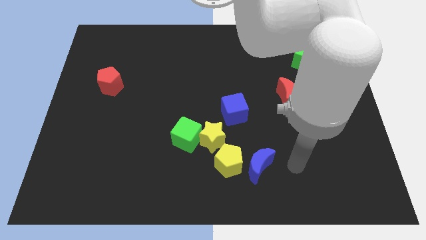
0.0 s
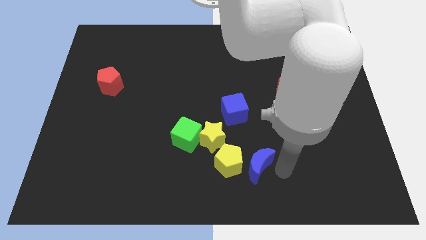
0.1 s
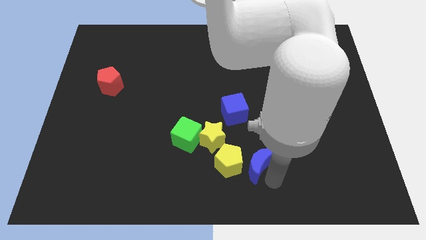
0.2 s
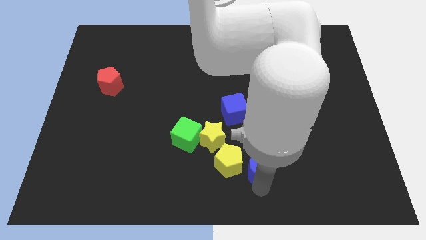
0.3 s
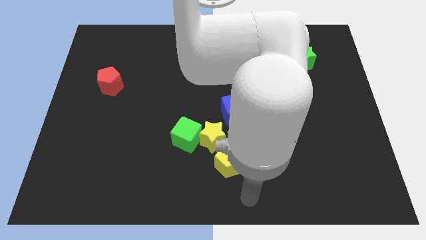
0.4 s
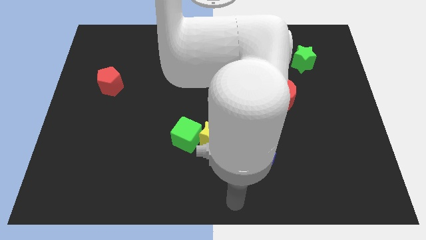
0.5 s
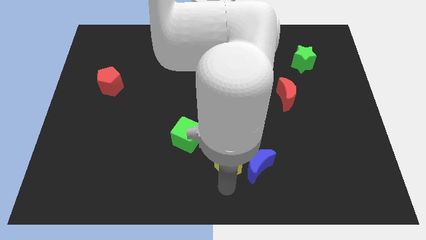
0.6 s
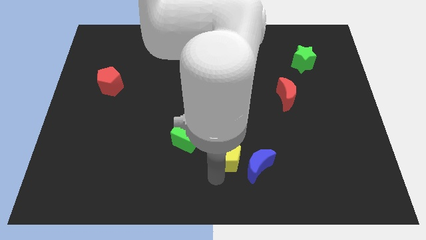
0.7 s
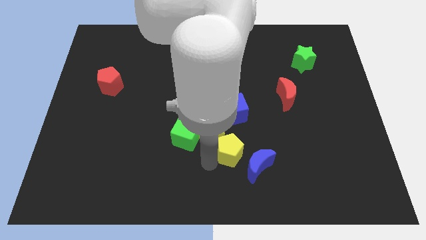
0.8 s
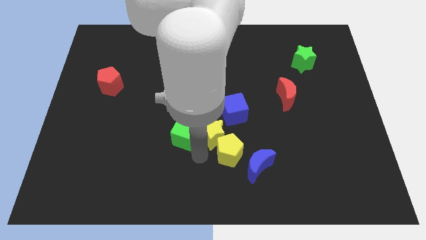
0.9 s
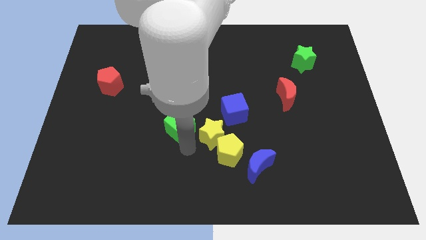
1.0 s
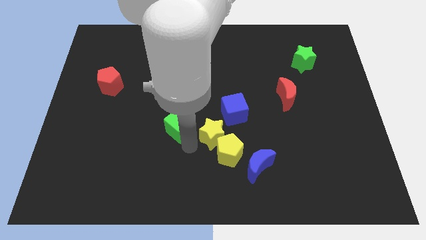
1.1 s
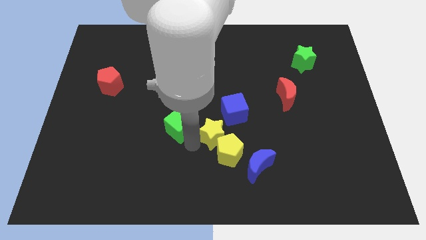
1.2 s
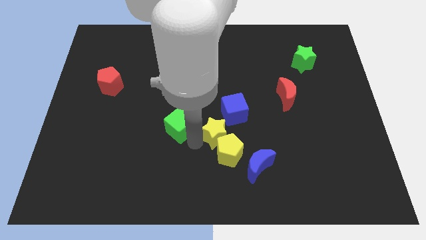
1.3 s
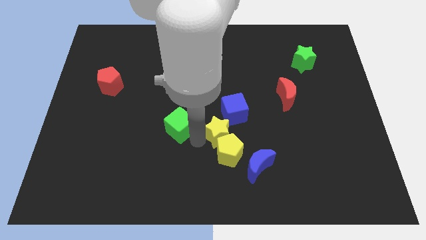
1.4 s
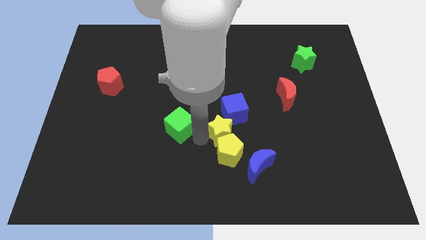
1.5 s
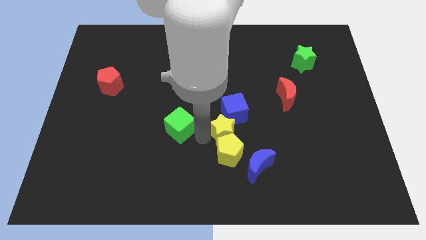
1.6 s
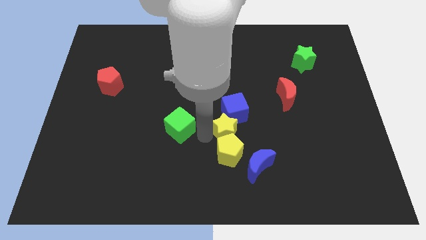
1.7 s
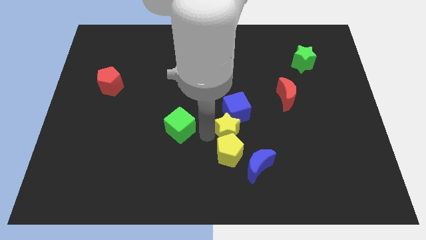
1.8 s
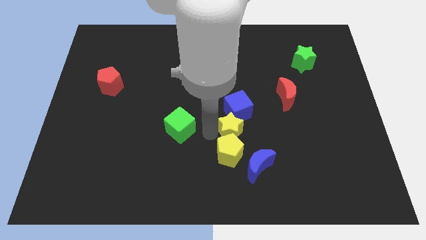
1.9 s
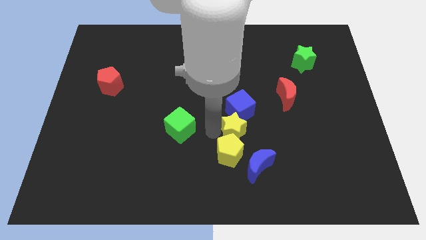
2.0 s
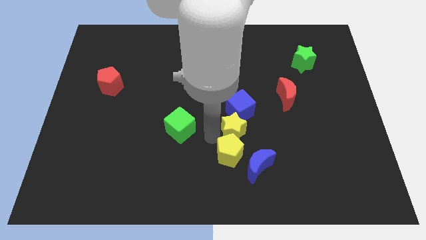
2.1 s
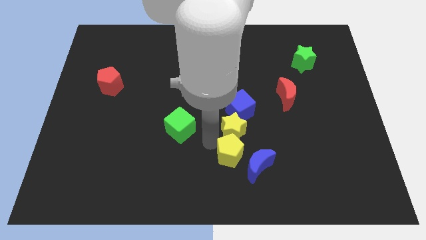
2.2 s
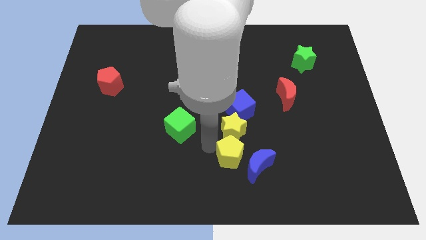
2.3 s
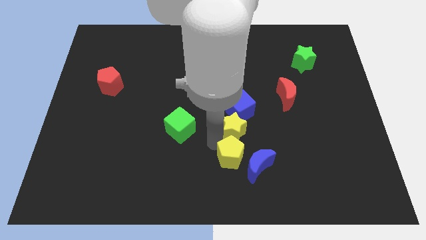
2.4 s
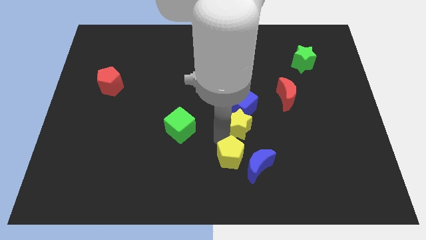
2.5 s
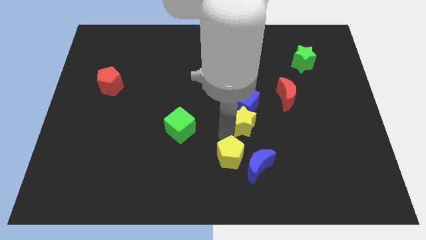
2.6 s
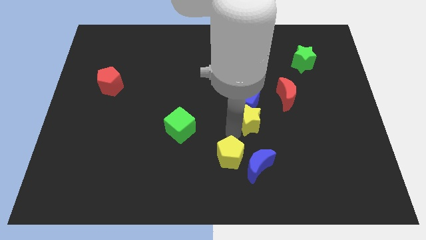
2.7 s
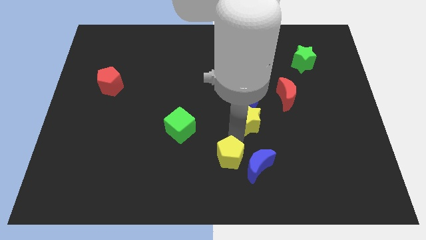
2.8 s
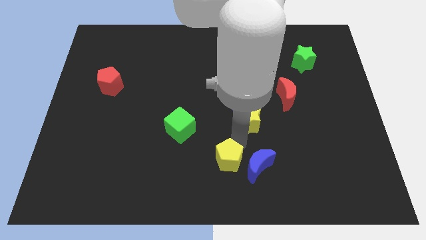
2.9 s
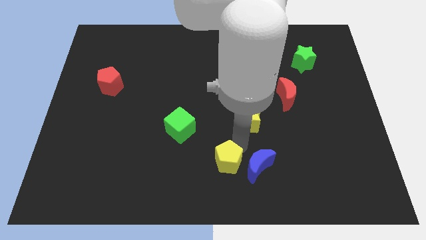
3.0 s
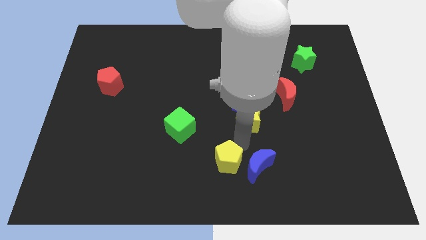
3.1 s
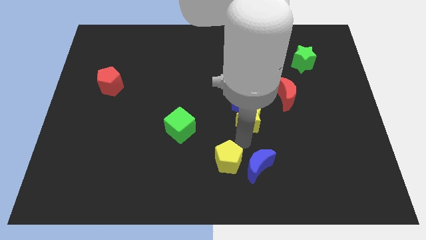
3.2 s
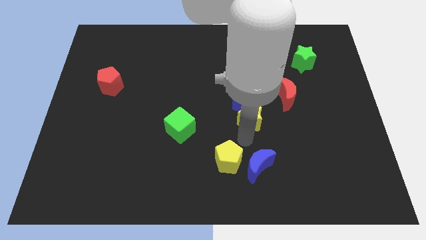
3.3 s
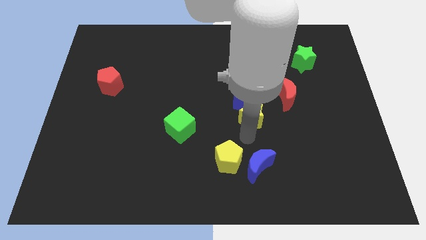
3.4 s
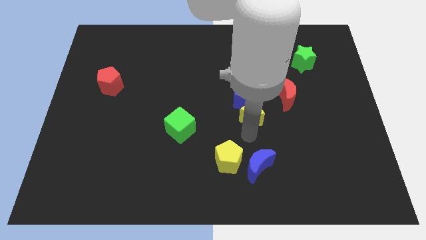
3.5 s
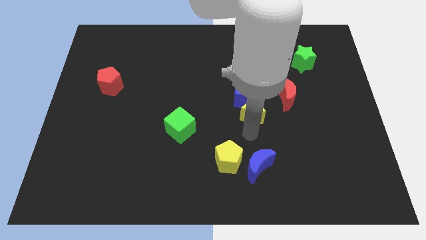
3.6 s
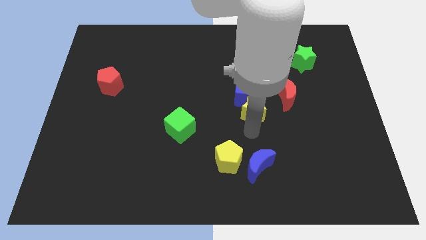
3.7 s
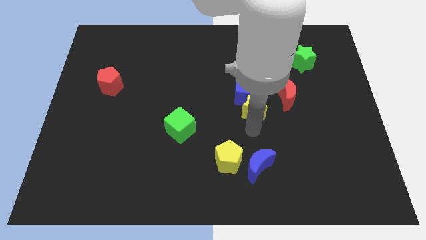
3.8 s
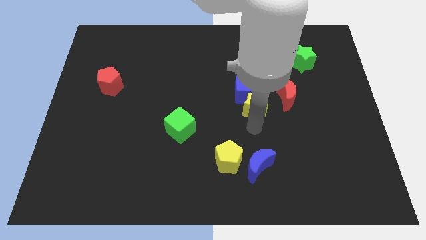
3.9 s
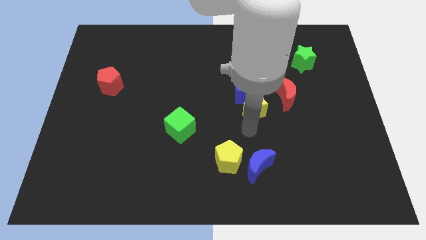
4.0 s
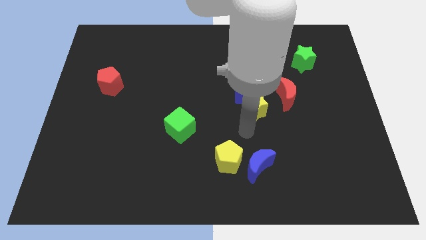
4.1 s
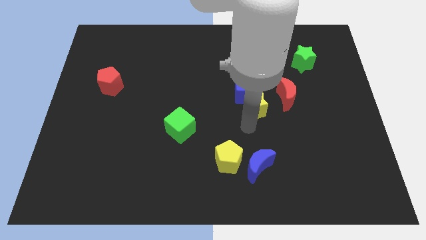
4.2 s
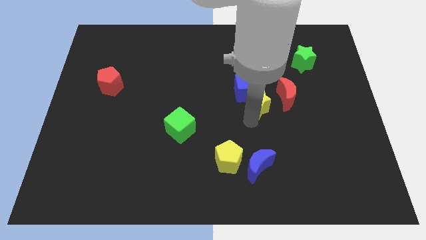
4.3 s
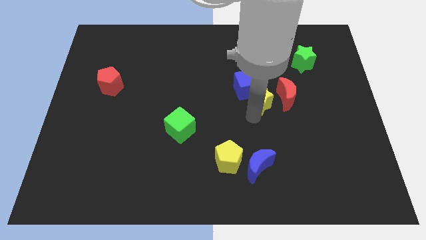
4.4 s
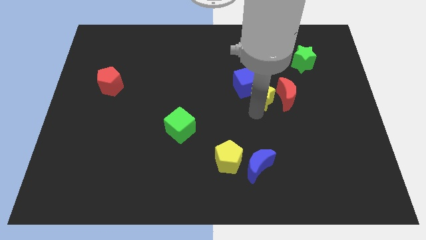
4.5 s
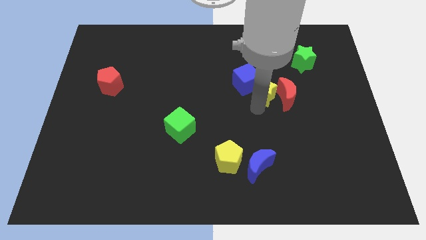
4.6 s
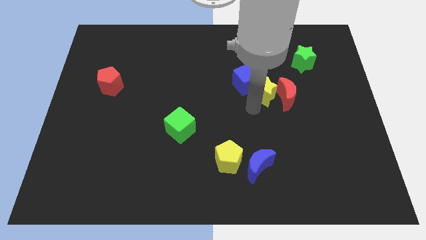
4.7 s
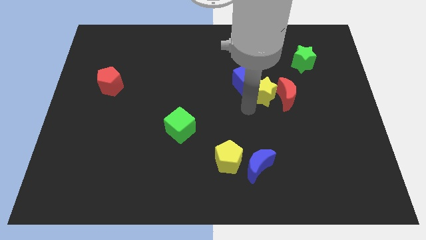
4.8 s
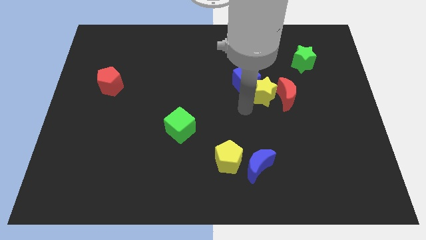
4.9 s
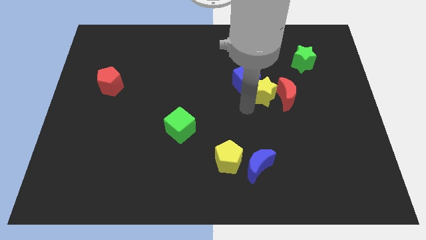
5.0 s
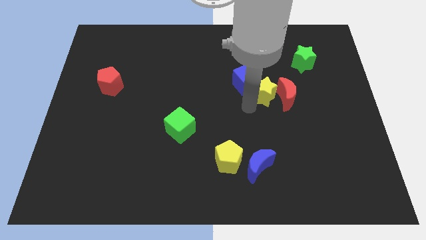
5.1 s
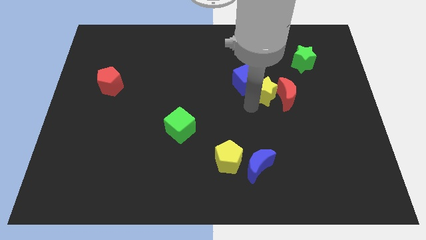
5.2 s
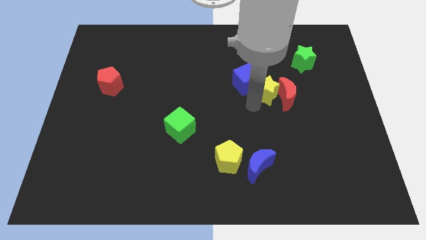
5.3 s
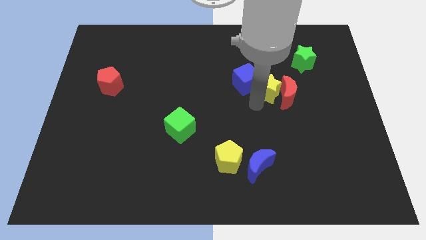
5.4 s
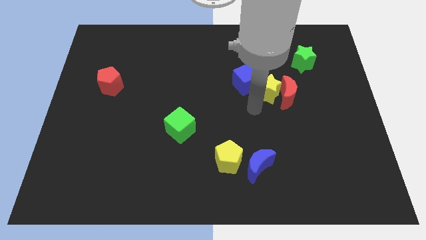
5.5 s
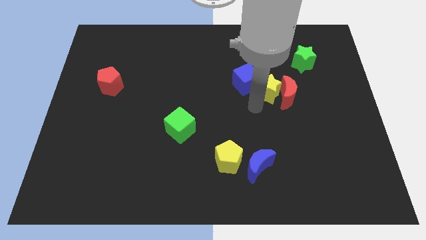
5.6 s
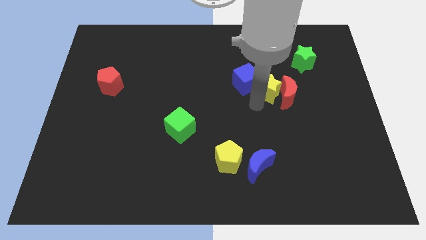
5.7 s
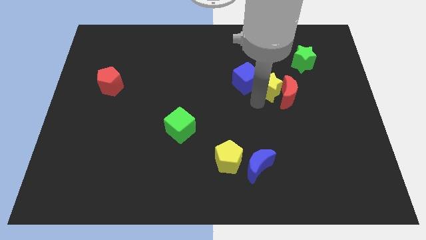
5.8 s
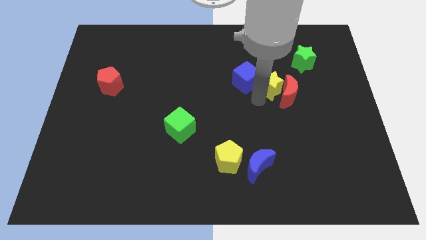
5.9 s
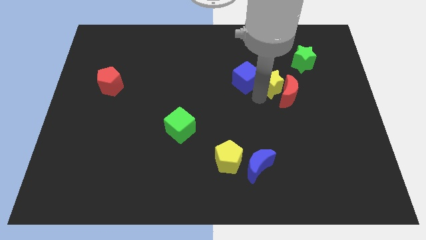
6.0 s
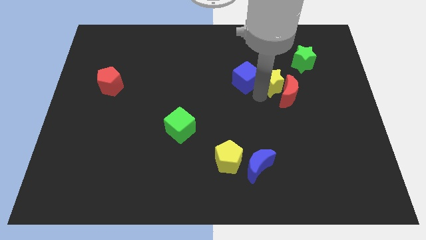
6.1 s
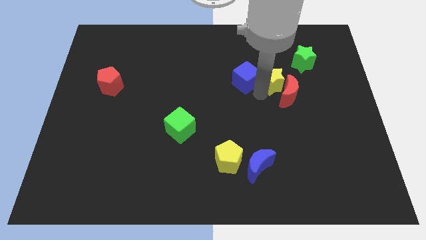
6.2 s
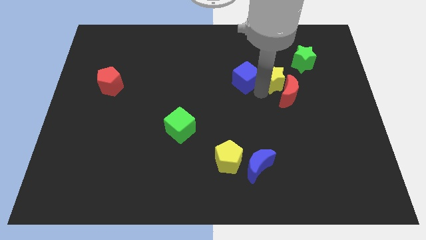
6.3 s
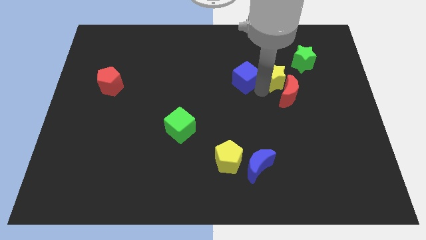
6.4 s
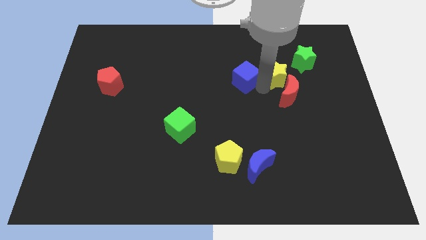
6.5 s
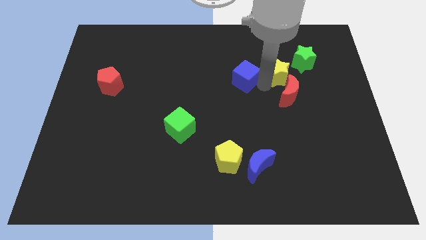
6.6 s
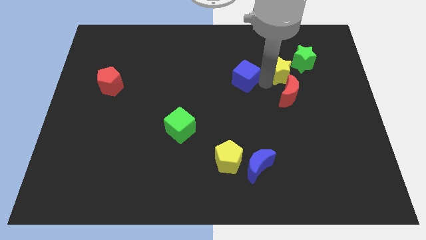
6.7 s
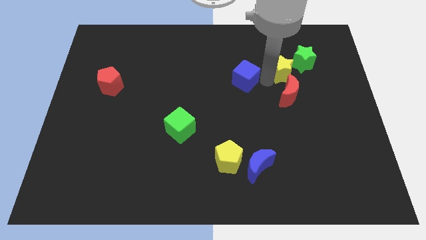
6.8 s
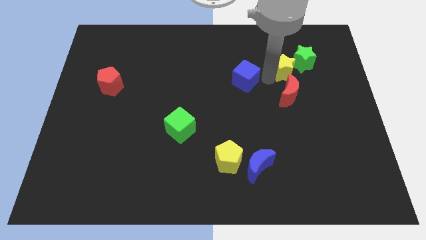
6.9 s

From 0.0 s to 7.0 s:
put the yellow star close to the green star
